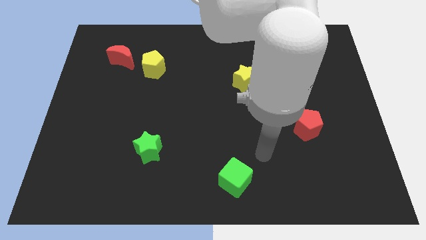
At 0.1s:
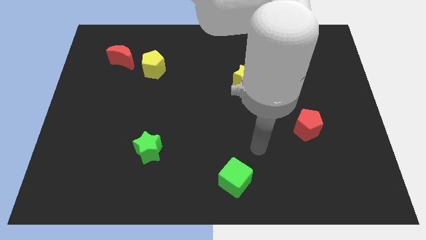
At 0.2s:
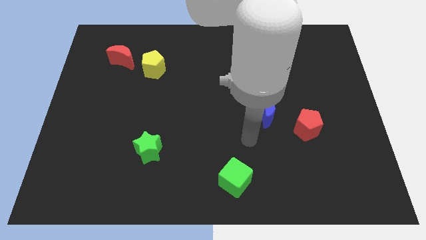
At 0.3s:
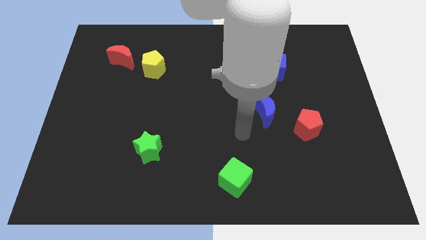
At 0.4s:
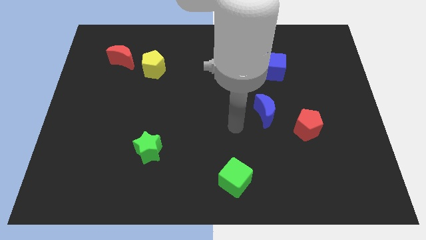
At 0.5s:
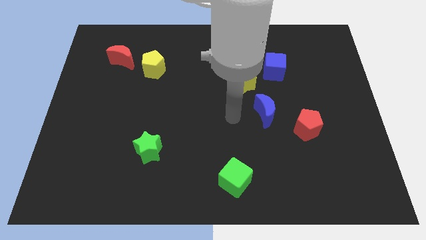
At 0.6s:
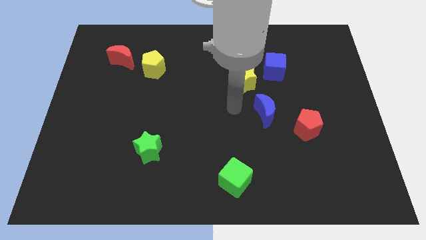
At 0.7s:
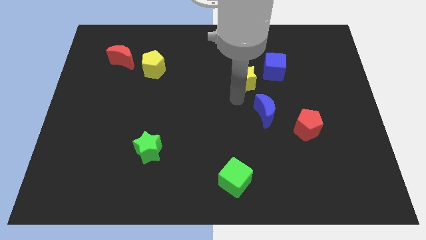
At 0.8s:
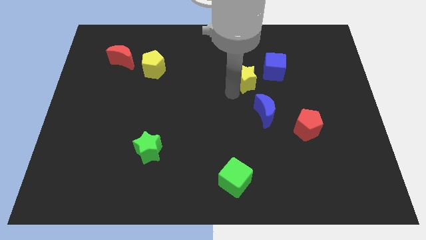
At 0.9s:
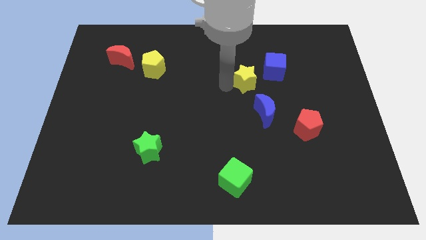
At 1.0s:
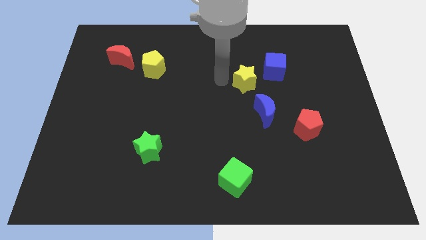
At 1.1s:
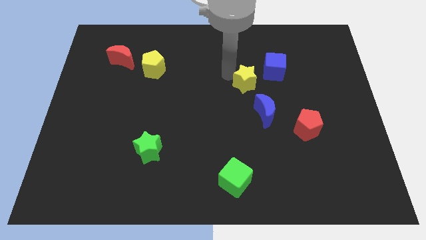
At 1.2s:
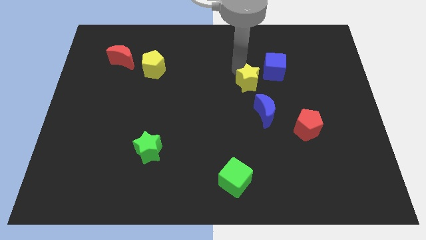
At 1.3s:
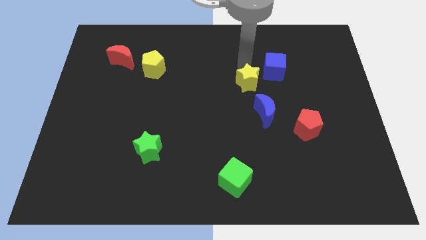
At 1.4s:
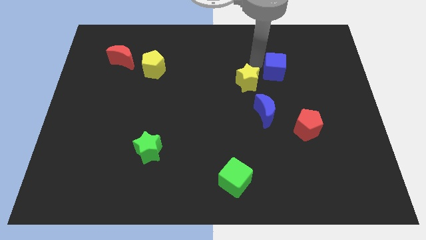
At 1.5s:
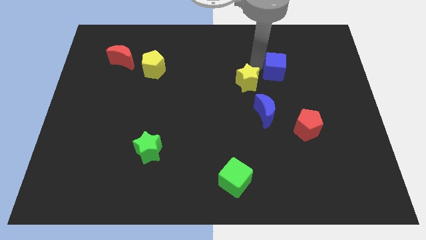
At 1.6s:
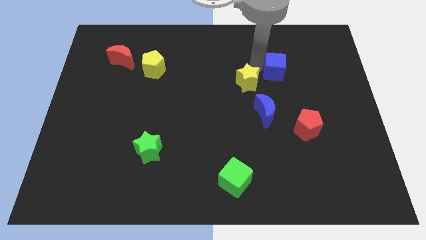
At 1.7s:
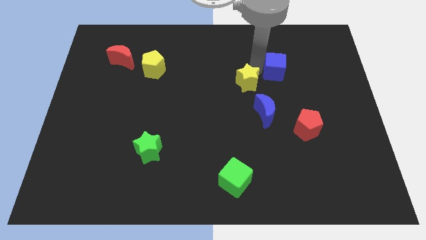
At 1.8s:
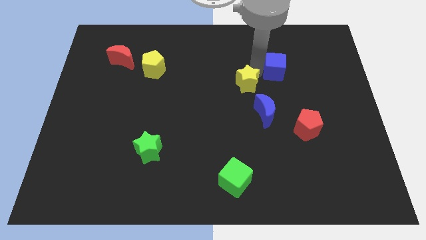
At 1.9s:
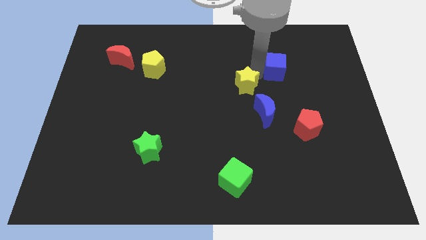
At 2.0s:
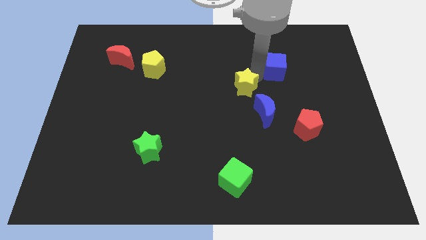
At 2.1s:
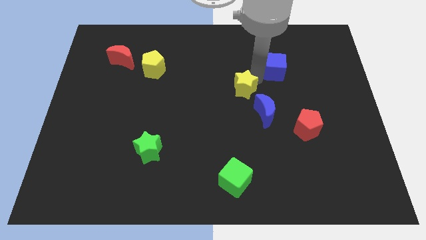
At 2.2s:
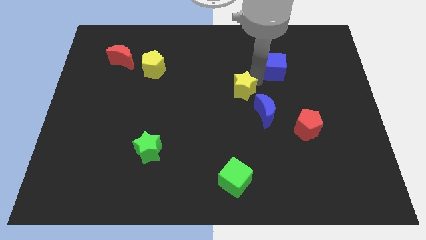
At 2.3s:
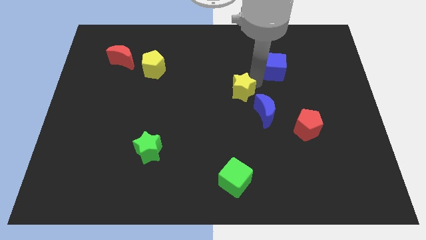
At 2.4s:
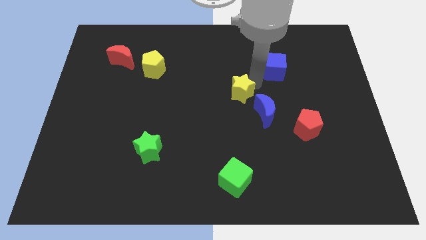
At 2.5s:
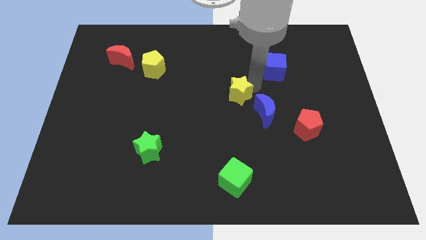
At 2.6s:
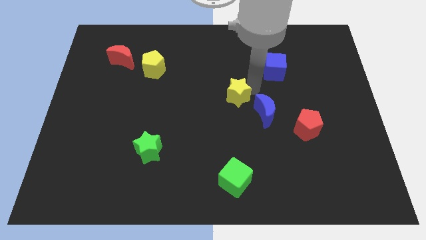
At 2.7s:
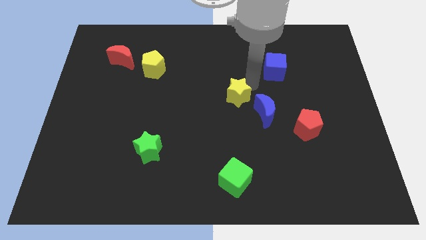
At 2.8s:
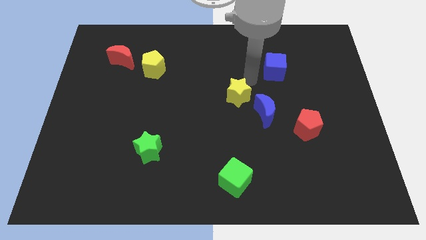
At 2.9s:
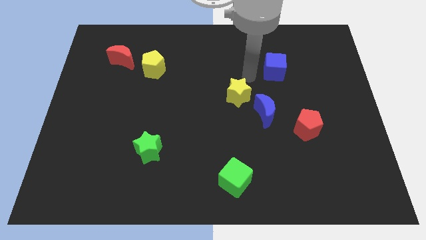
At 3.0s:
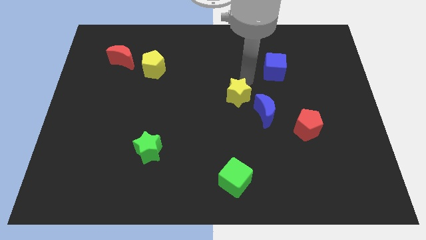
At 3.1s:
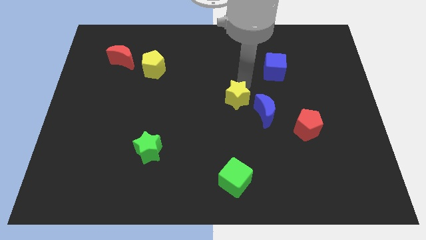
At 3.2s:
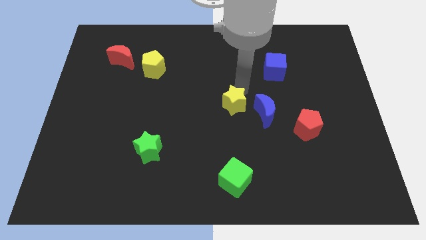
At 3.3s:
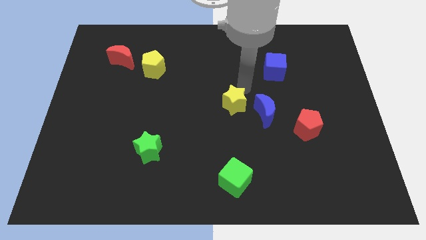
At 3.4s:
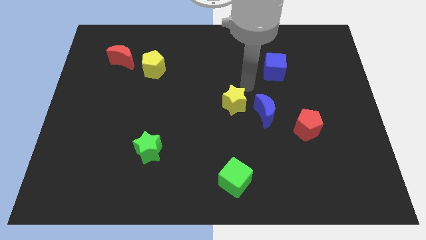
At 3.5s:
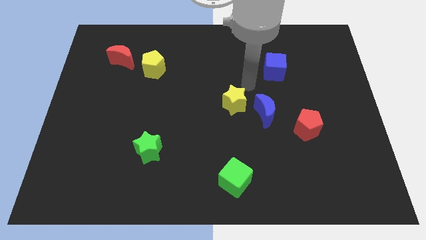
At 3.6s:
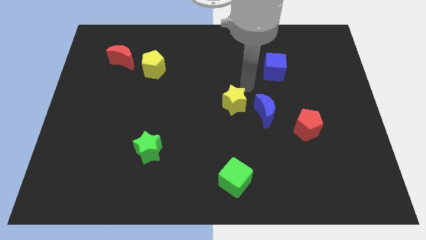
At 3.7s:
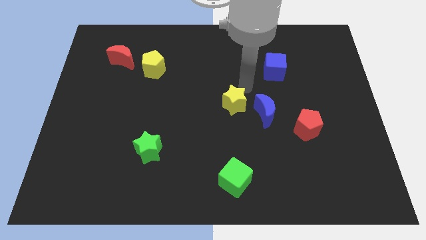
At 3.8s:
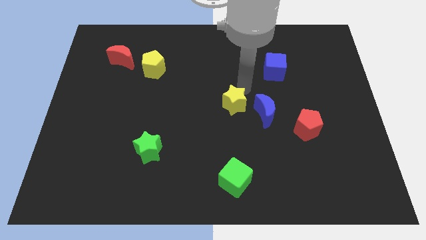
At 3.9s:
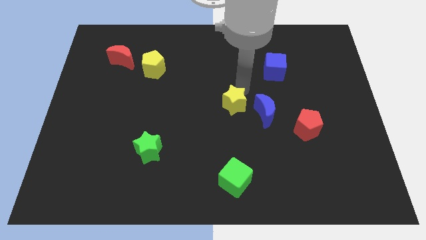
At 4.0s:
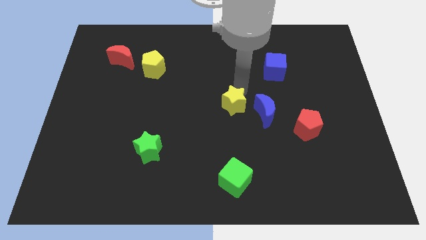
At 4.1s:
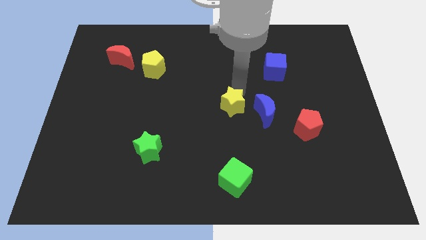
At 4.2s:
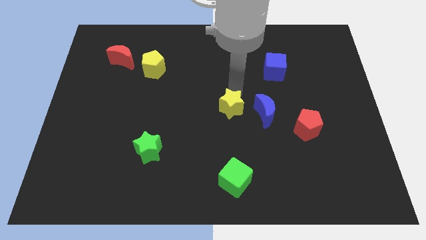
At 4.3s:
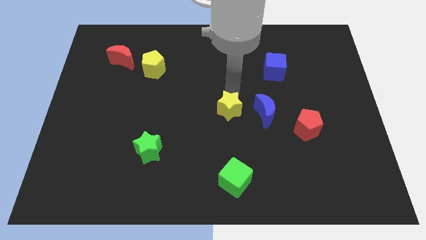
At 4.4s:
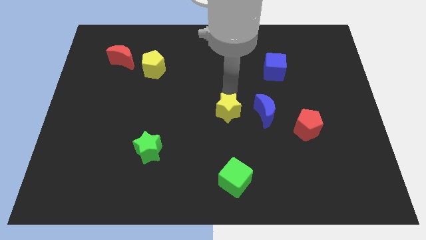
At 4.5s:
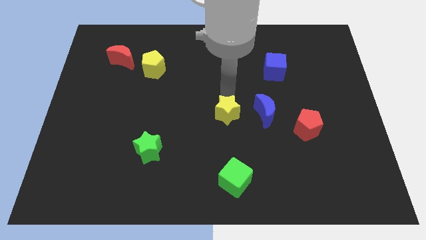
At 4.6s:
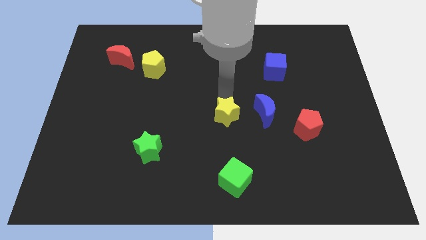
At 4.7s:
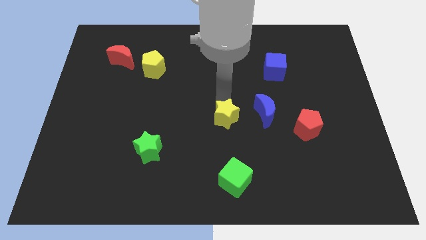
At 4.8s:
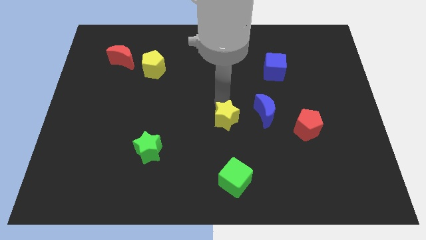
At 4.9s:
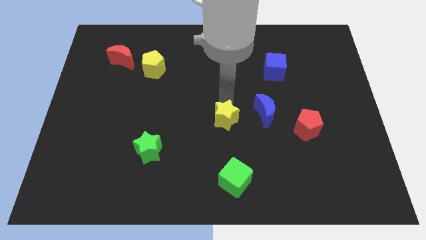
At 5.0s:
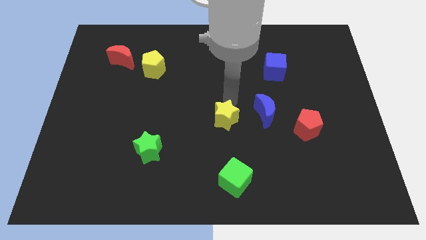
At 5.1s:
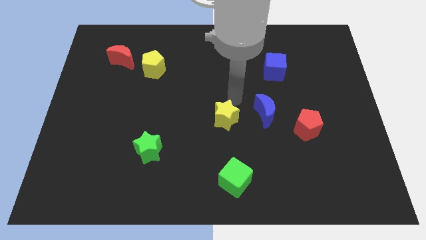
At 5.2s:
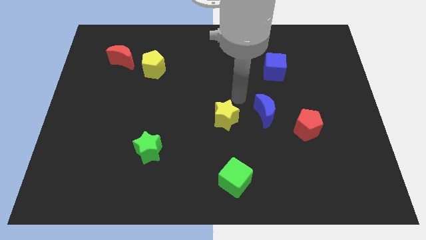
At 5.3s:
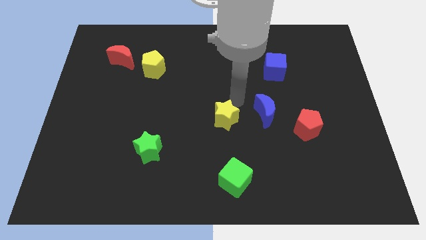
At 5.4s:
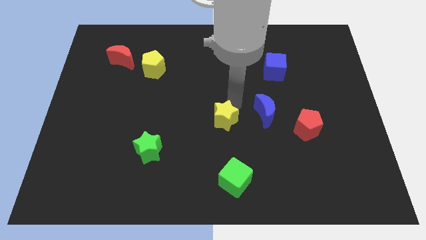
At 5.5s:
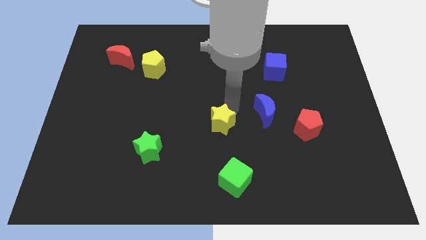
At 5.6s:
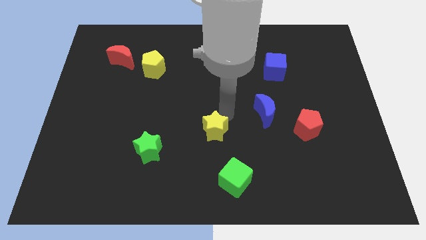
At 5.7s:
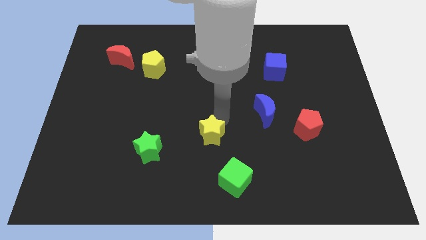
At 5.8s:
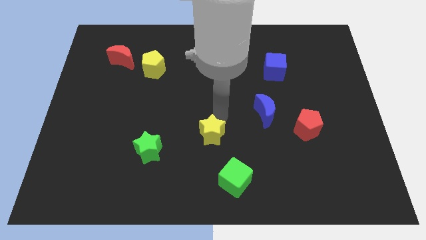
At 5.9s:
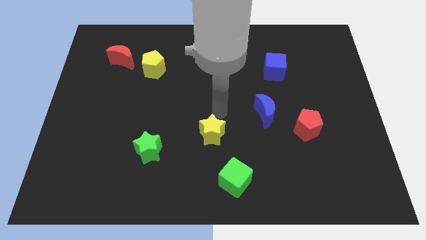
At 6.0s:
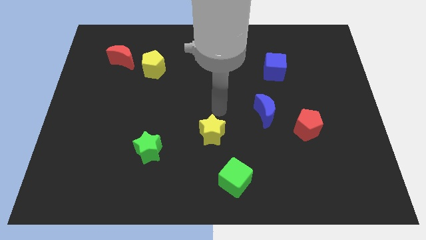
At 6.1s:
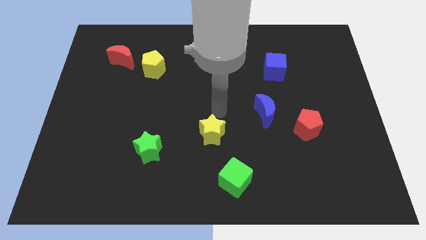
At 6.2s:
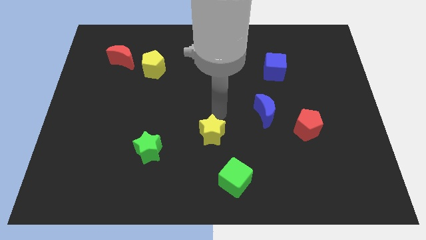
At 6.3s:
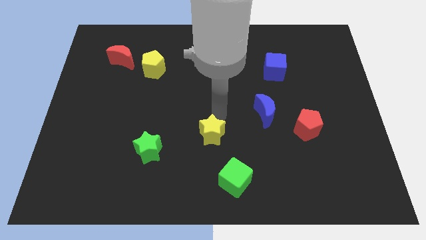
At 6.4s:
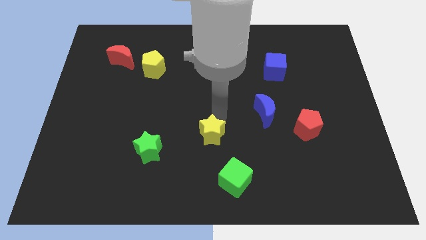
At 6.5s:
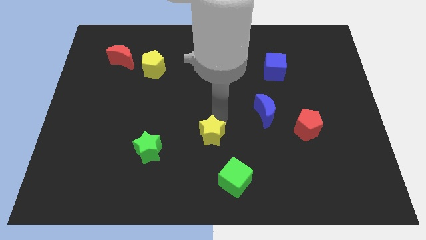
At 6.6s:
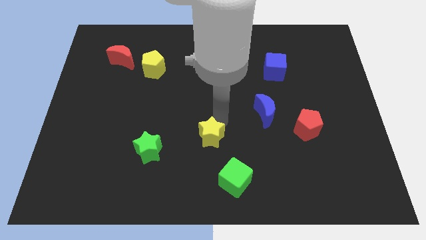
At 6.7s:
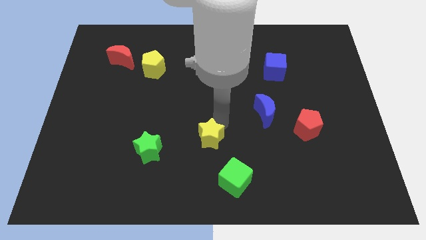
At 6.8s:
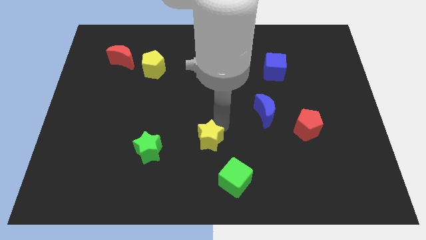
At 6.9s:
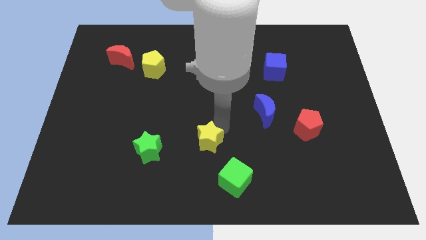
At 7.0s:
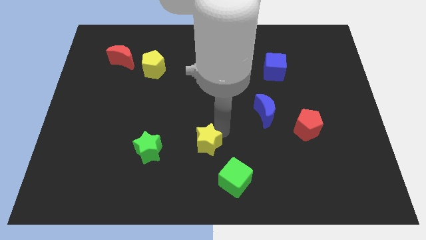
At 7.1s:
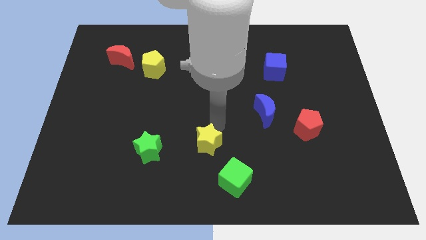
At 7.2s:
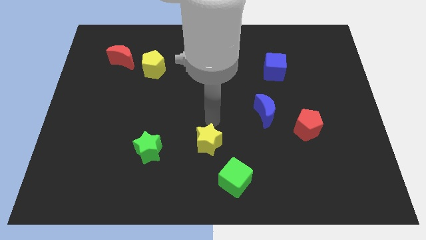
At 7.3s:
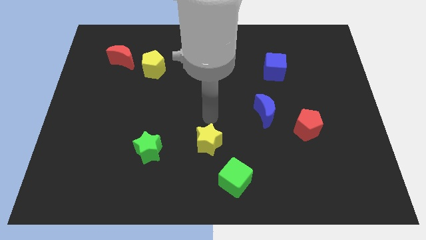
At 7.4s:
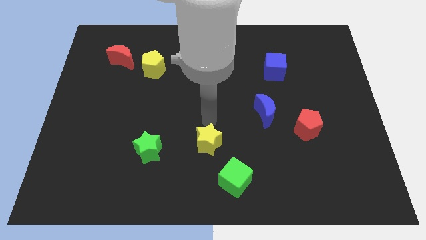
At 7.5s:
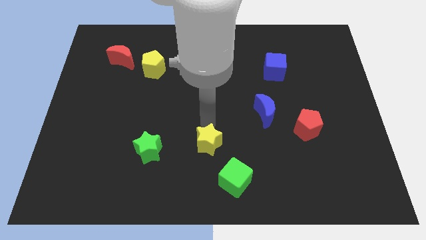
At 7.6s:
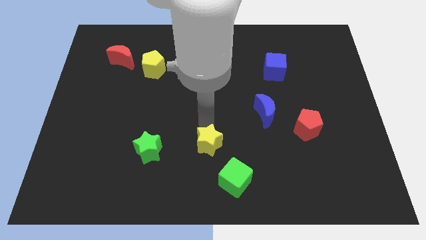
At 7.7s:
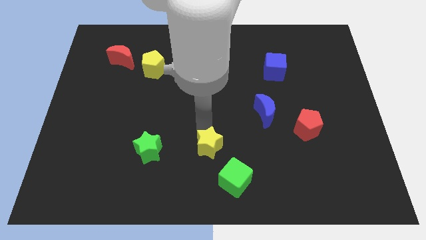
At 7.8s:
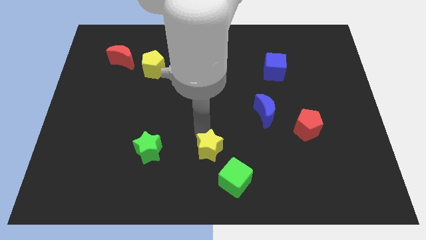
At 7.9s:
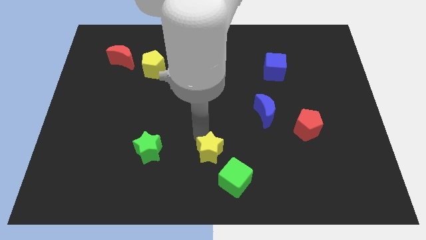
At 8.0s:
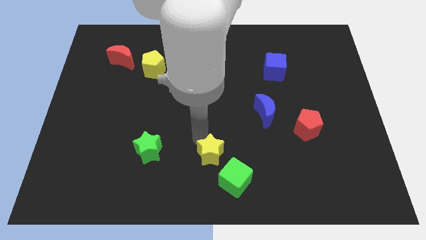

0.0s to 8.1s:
move the yellow star to the bottom
